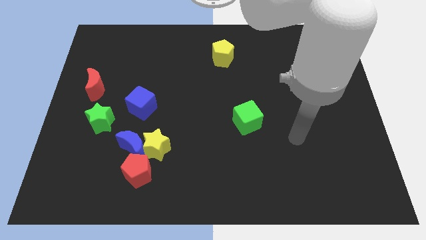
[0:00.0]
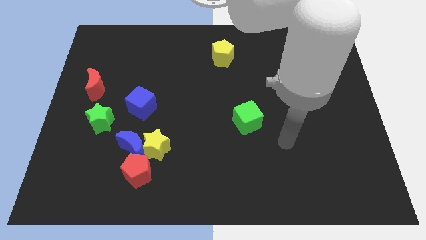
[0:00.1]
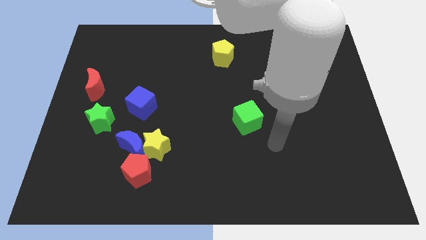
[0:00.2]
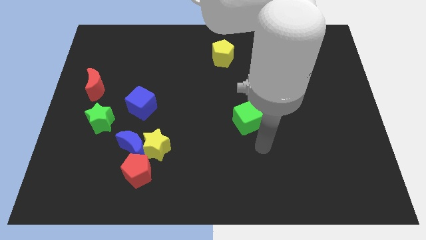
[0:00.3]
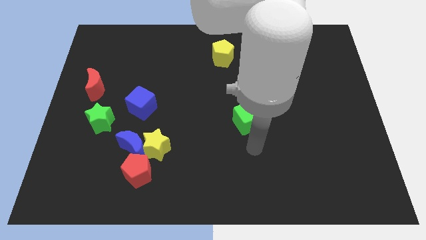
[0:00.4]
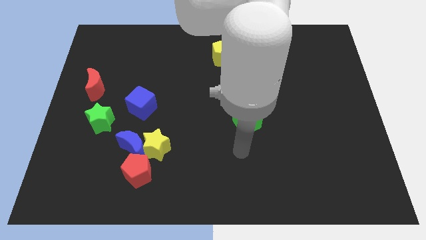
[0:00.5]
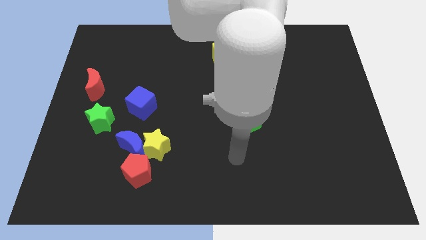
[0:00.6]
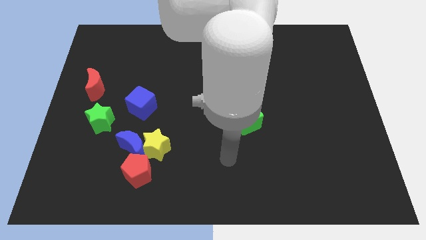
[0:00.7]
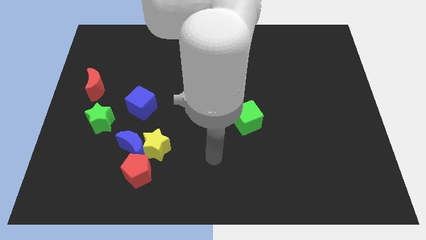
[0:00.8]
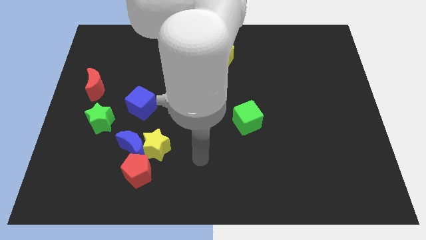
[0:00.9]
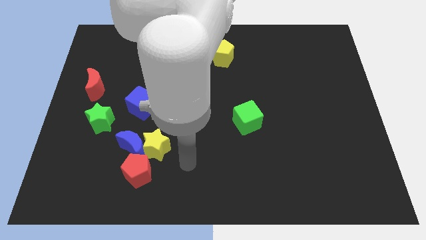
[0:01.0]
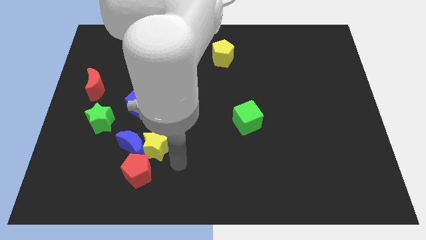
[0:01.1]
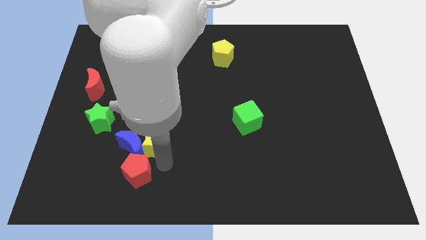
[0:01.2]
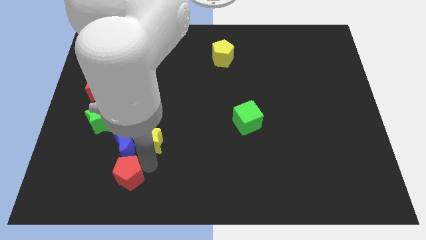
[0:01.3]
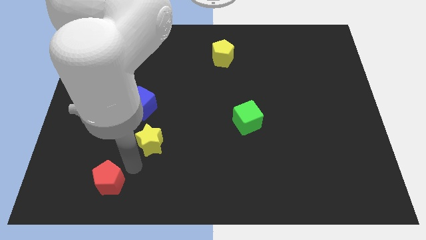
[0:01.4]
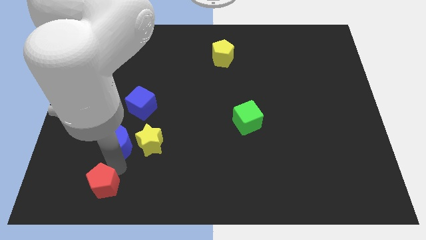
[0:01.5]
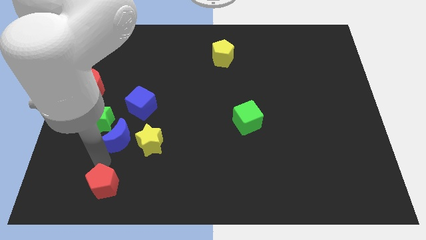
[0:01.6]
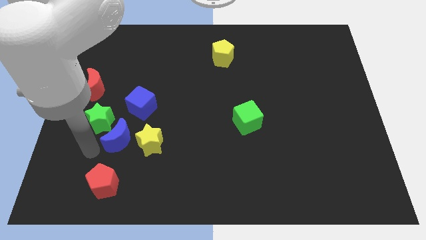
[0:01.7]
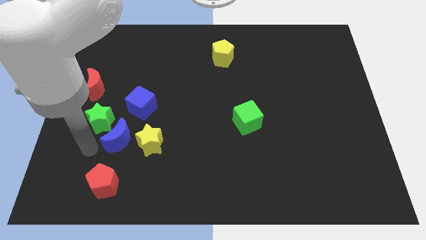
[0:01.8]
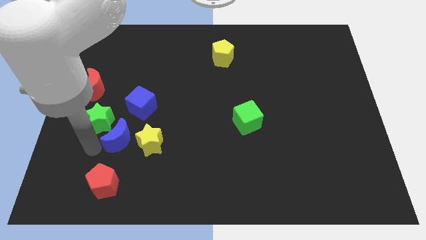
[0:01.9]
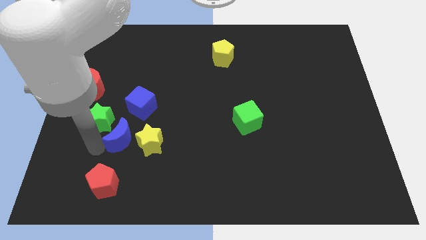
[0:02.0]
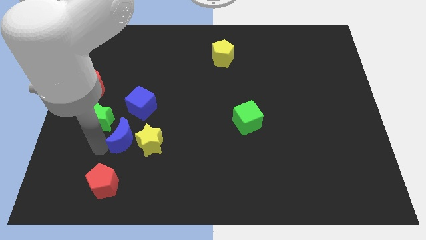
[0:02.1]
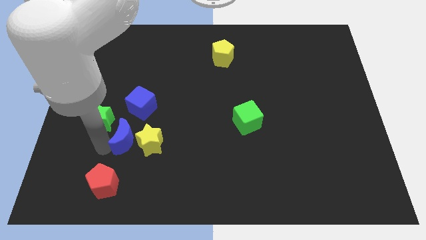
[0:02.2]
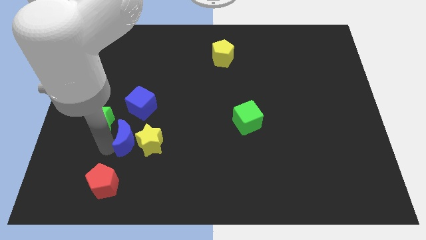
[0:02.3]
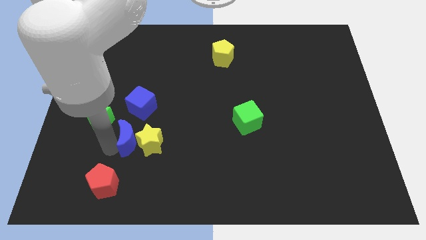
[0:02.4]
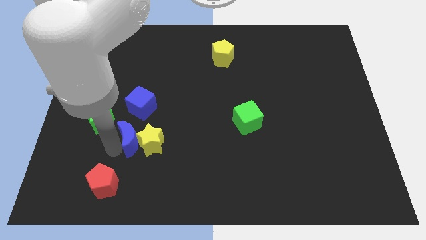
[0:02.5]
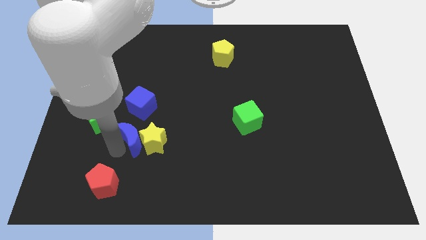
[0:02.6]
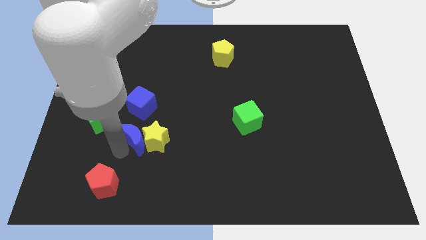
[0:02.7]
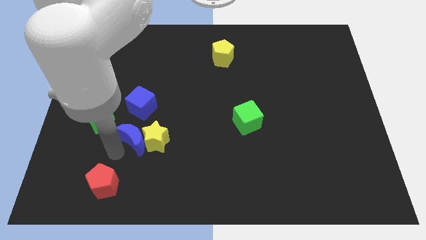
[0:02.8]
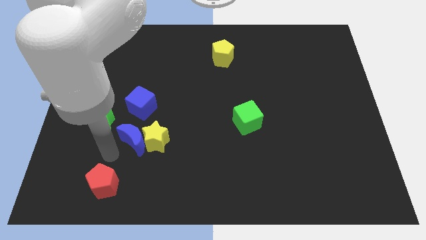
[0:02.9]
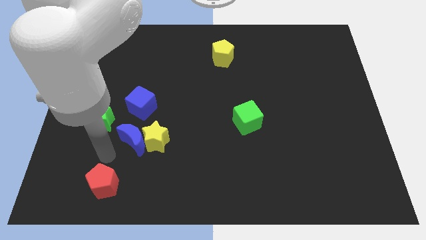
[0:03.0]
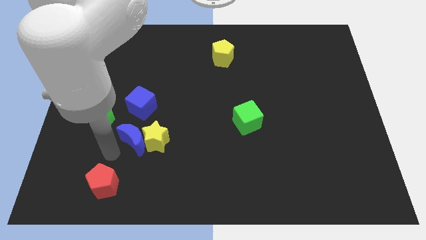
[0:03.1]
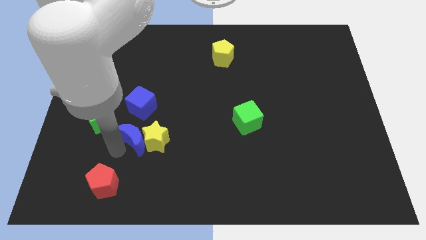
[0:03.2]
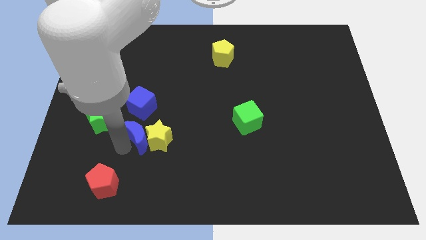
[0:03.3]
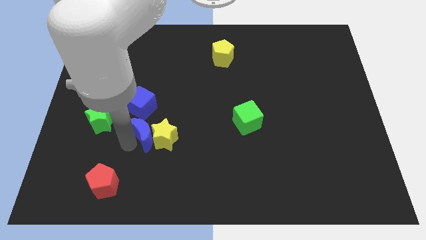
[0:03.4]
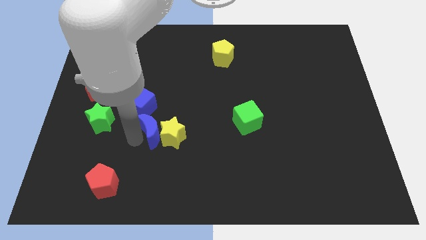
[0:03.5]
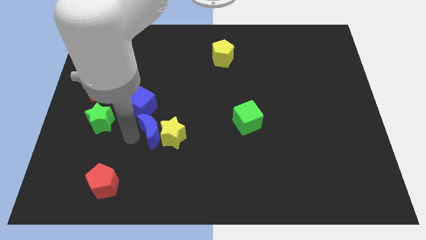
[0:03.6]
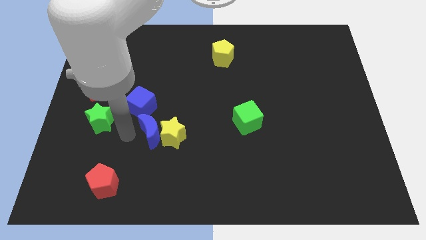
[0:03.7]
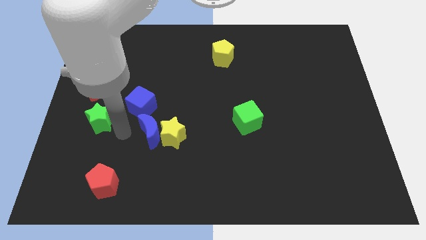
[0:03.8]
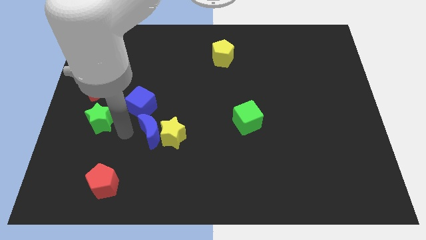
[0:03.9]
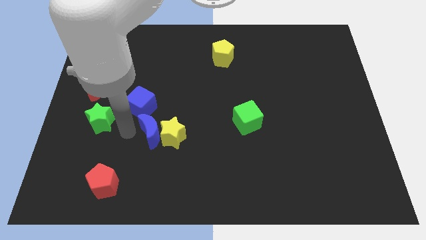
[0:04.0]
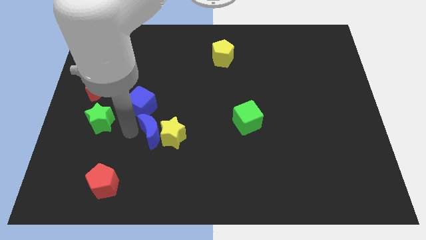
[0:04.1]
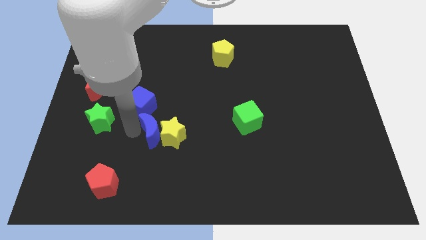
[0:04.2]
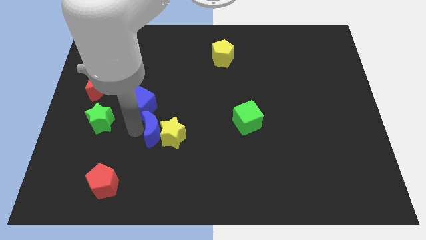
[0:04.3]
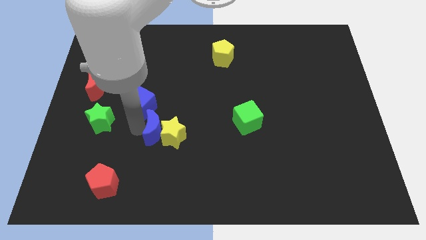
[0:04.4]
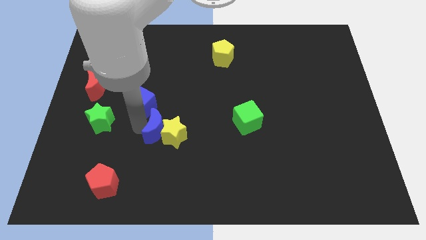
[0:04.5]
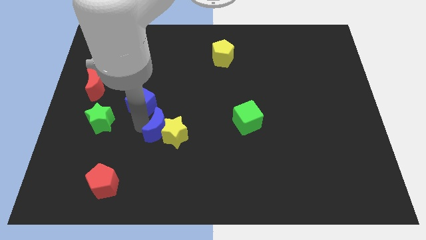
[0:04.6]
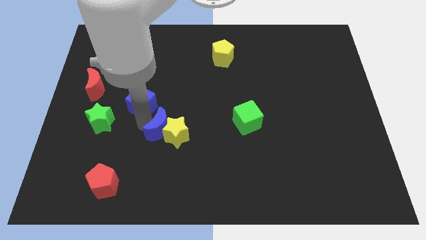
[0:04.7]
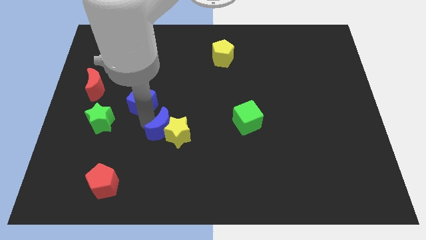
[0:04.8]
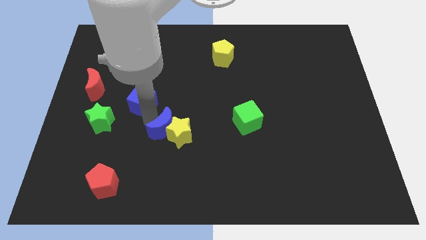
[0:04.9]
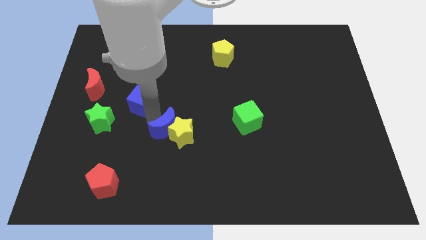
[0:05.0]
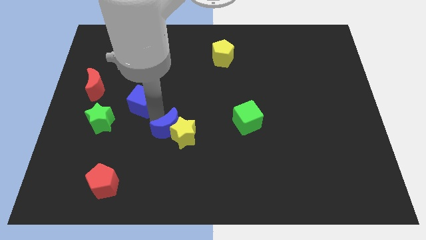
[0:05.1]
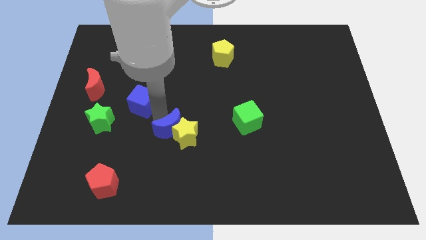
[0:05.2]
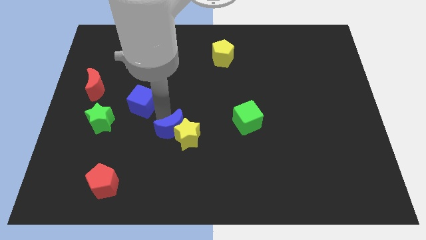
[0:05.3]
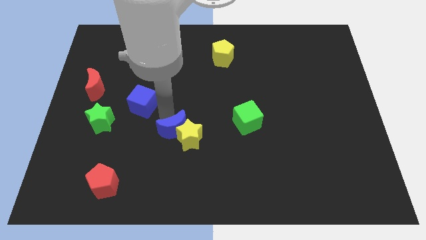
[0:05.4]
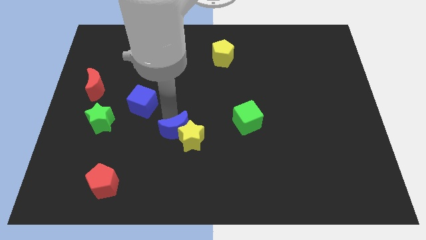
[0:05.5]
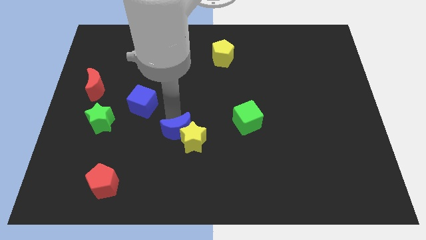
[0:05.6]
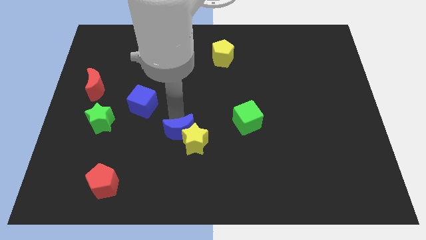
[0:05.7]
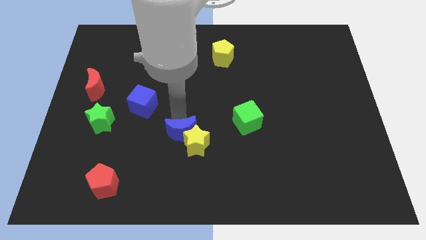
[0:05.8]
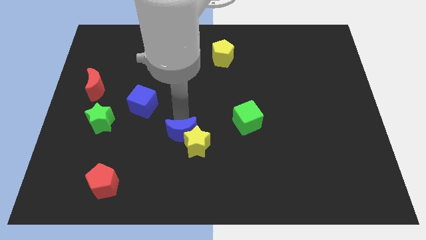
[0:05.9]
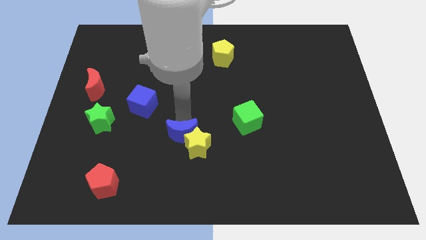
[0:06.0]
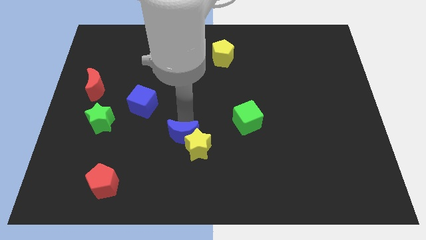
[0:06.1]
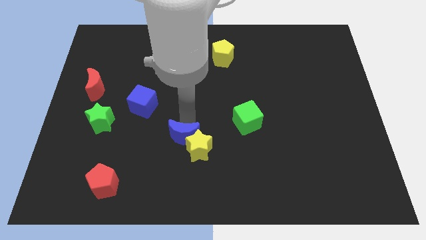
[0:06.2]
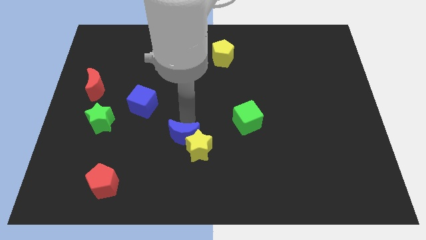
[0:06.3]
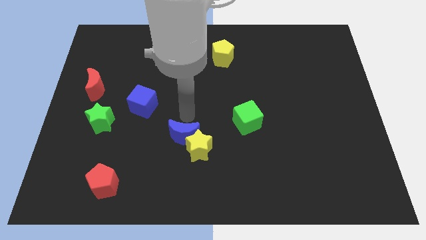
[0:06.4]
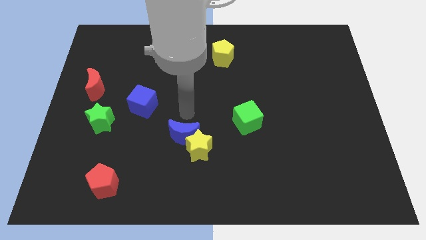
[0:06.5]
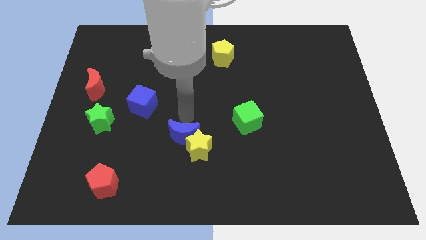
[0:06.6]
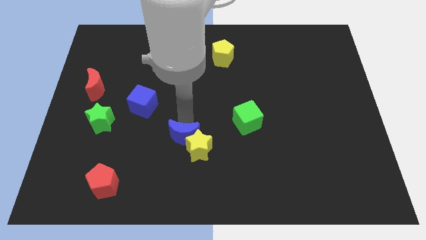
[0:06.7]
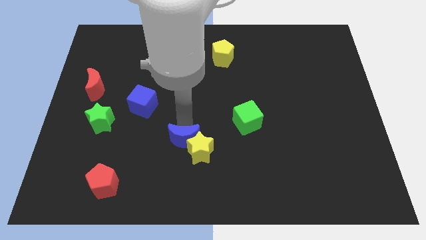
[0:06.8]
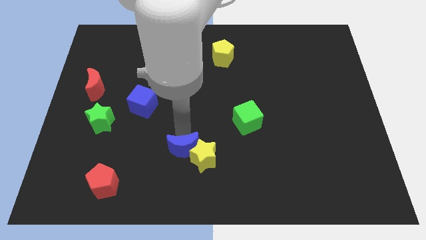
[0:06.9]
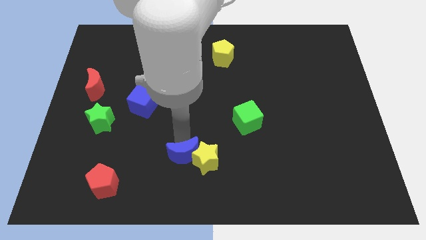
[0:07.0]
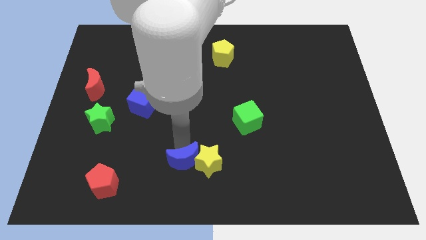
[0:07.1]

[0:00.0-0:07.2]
move the blue moon to the bottom side
